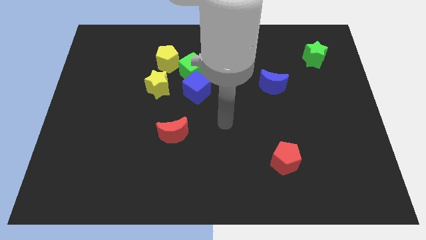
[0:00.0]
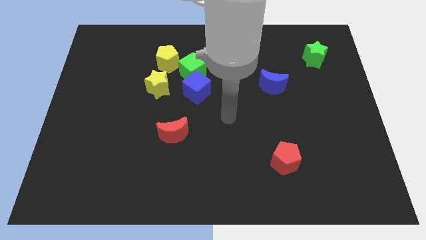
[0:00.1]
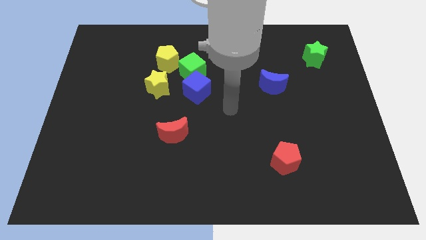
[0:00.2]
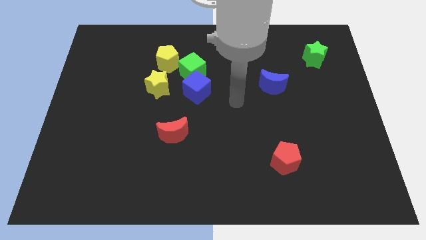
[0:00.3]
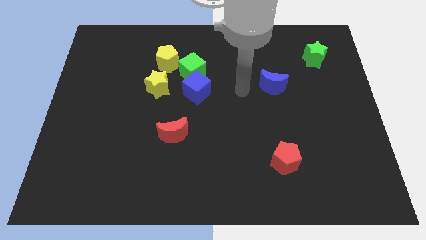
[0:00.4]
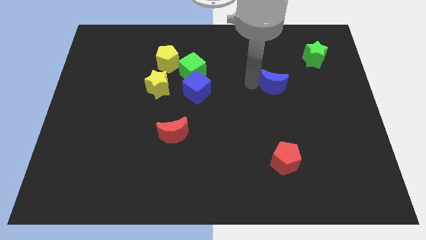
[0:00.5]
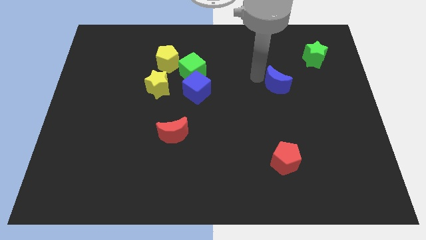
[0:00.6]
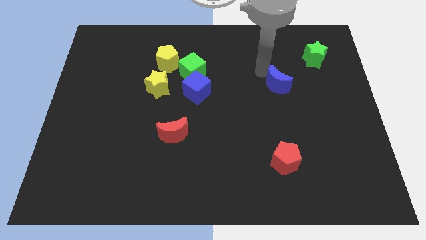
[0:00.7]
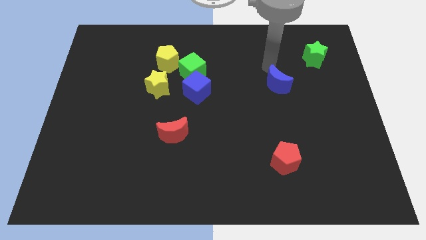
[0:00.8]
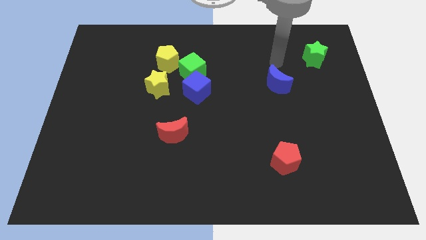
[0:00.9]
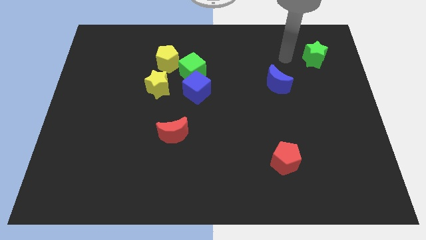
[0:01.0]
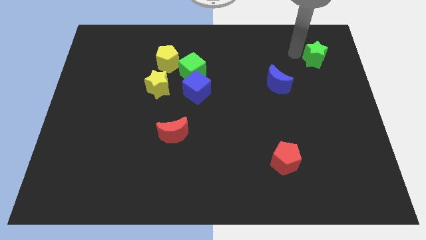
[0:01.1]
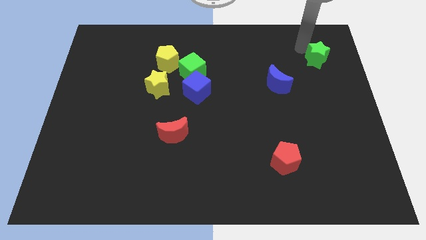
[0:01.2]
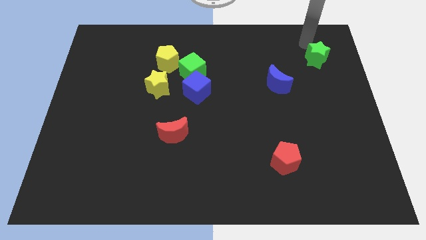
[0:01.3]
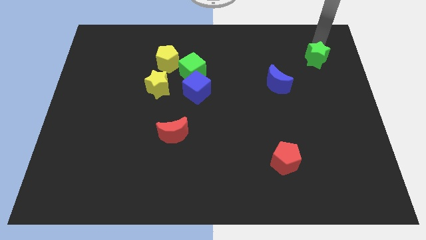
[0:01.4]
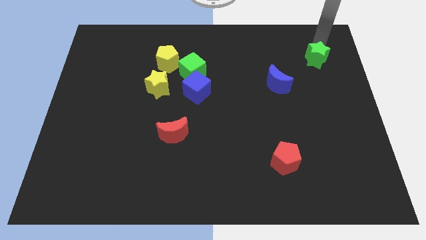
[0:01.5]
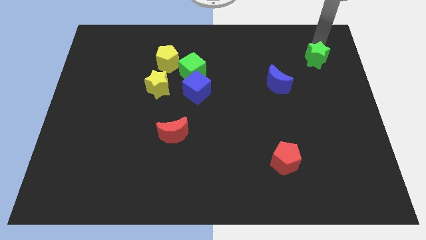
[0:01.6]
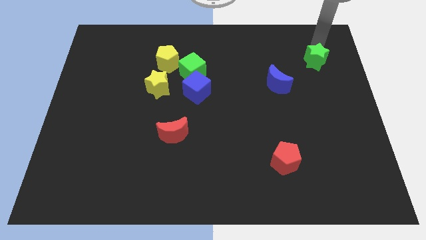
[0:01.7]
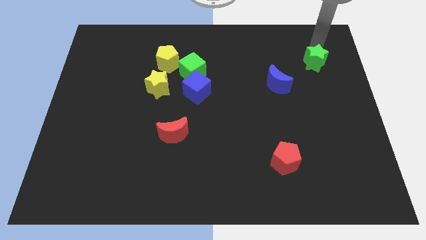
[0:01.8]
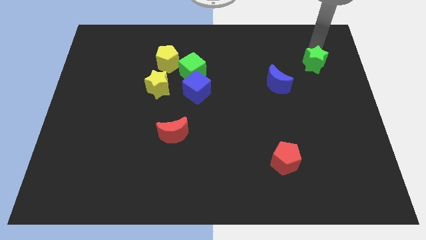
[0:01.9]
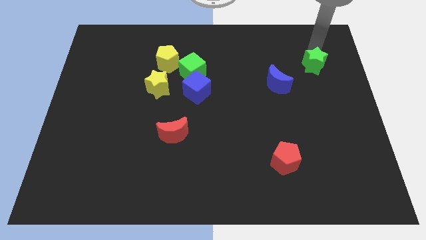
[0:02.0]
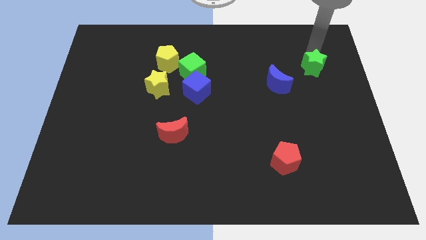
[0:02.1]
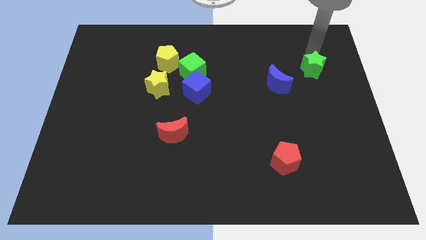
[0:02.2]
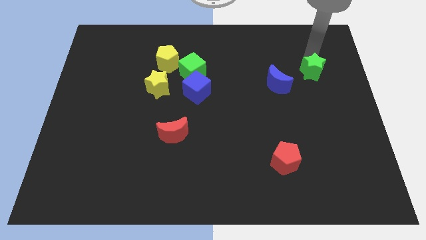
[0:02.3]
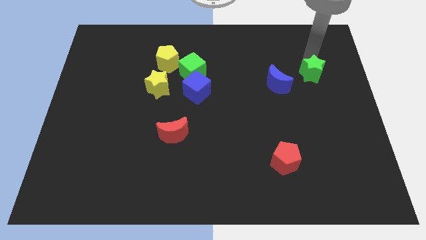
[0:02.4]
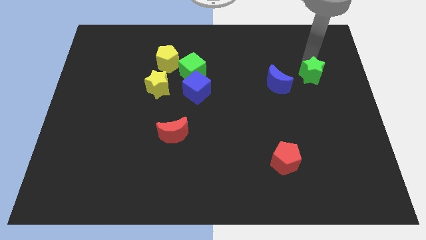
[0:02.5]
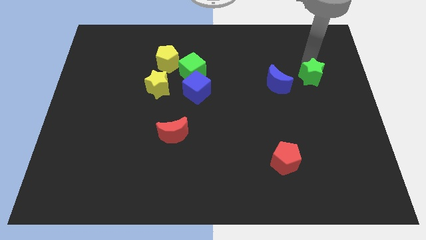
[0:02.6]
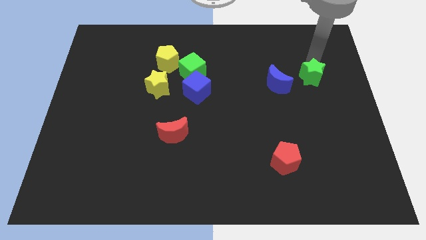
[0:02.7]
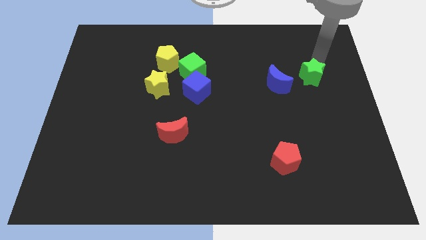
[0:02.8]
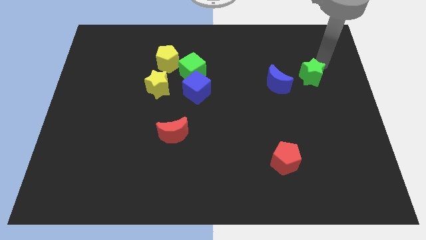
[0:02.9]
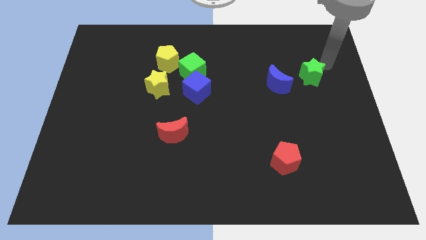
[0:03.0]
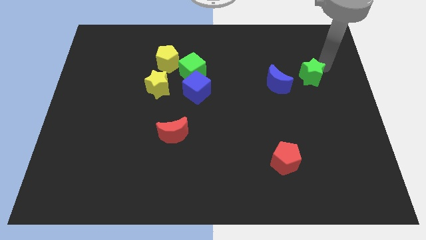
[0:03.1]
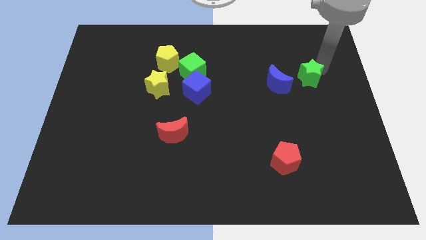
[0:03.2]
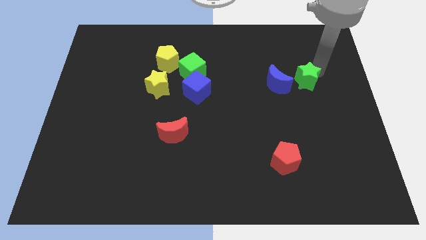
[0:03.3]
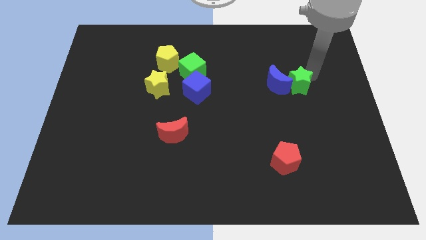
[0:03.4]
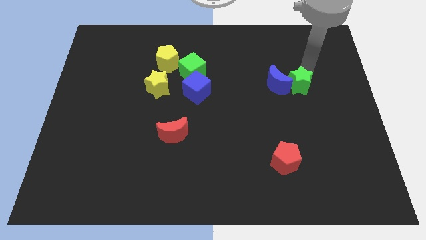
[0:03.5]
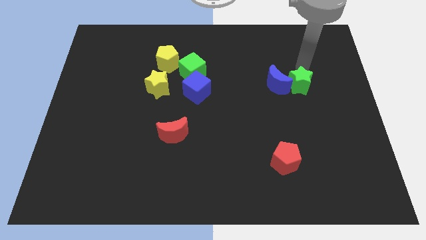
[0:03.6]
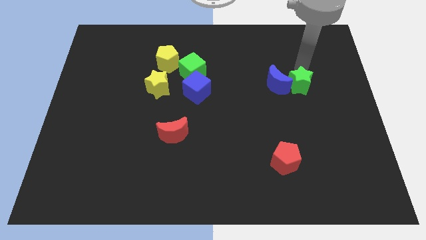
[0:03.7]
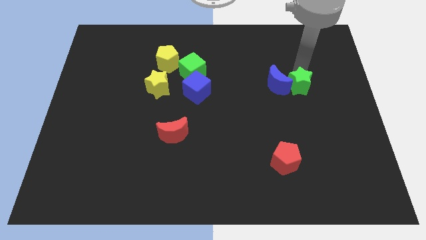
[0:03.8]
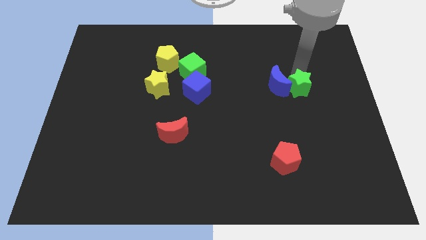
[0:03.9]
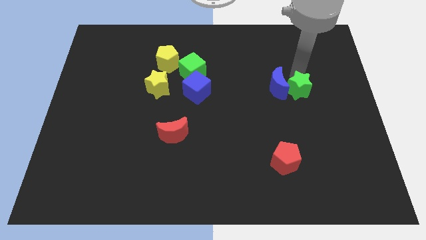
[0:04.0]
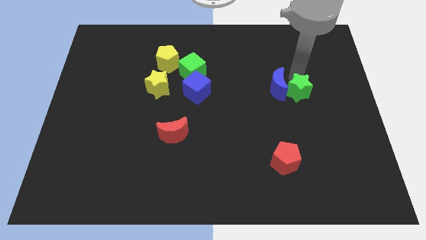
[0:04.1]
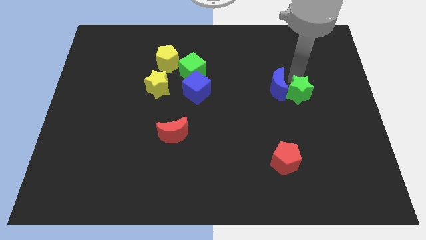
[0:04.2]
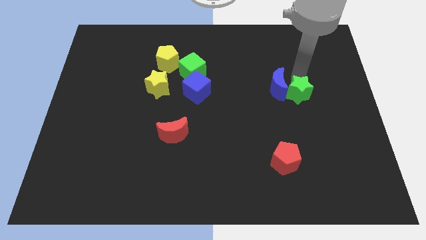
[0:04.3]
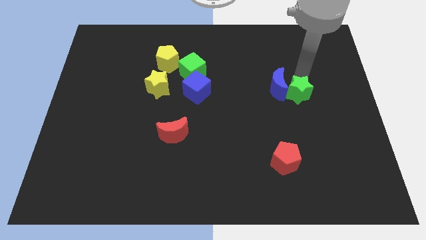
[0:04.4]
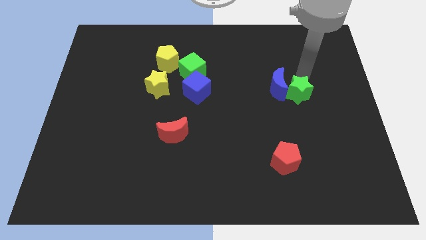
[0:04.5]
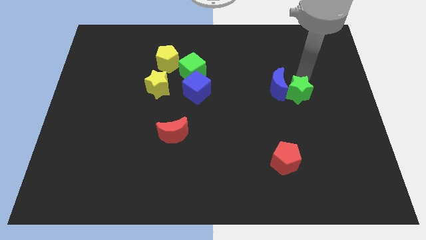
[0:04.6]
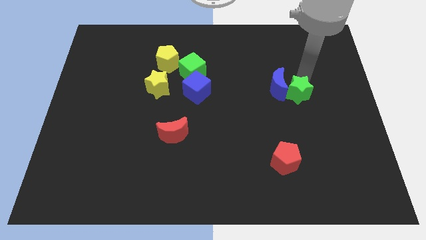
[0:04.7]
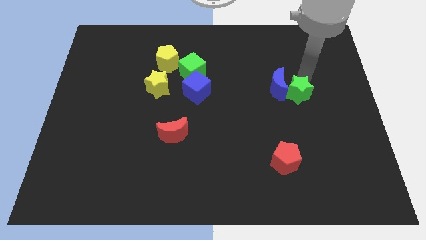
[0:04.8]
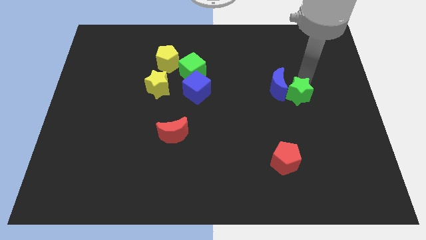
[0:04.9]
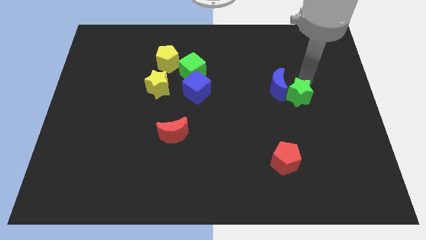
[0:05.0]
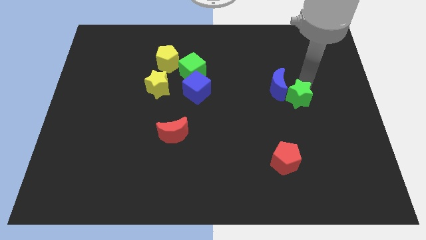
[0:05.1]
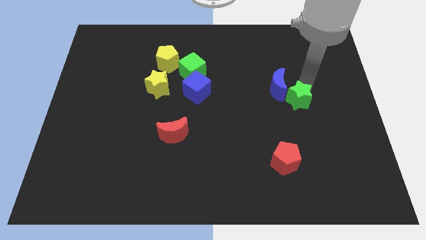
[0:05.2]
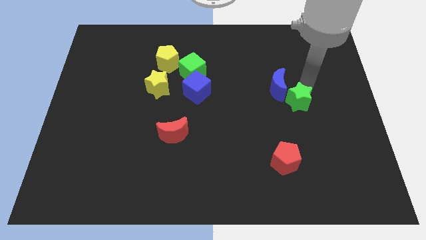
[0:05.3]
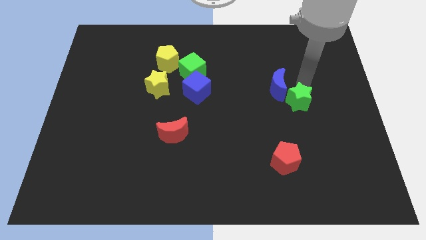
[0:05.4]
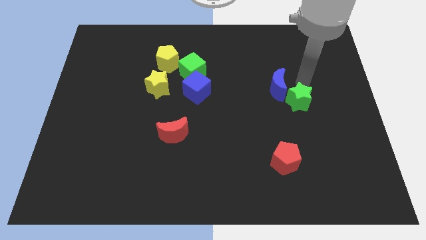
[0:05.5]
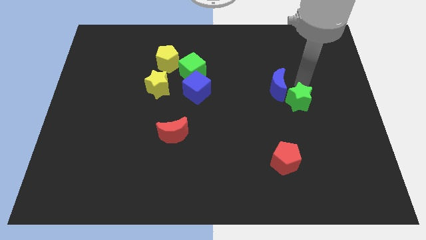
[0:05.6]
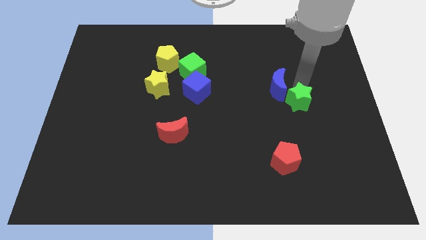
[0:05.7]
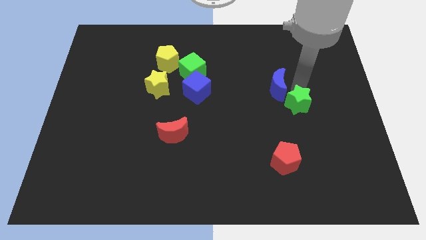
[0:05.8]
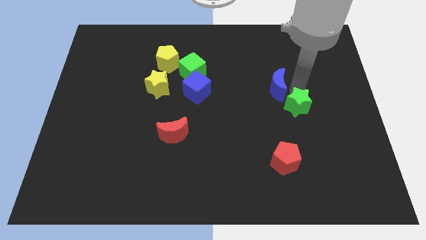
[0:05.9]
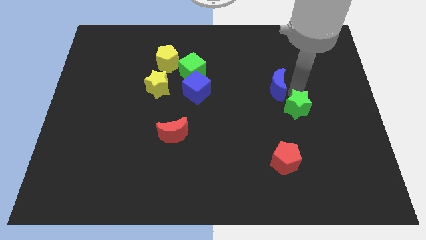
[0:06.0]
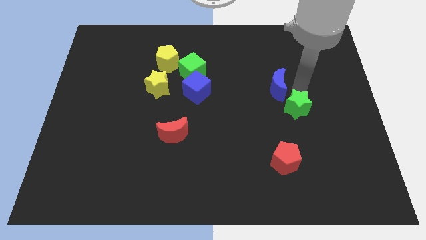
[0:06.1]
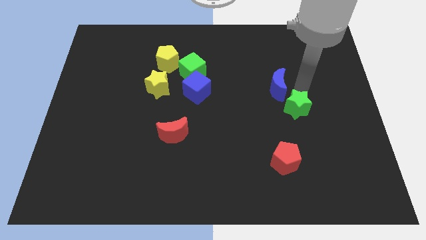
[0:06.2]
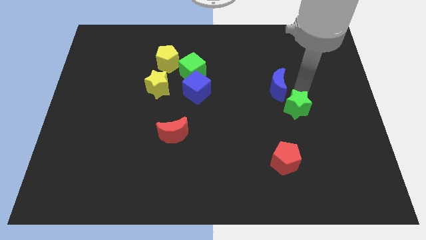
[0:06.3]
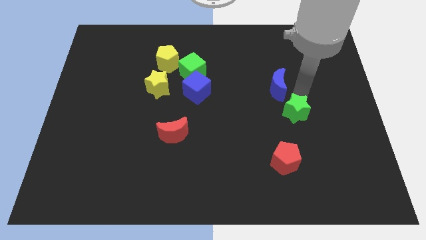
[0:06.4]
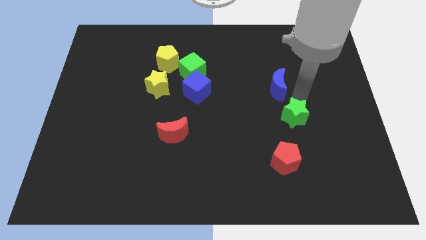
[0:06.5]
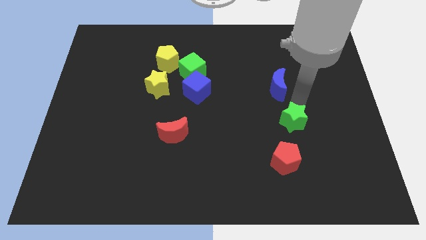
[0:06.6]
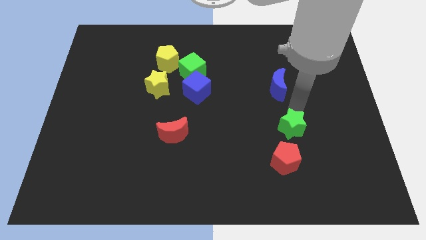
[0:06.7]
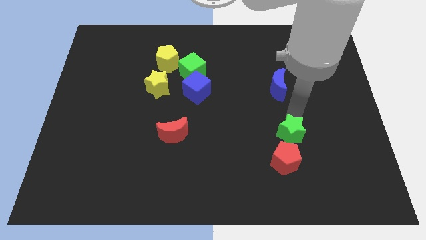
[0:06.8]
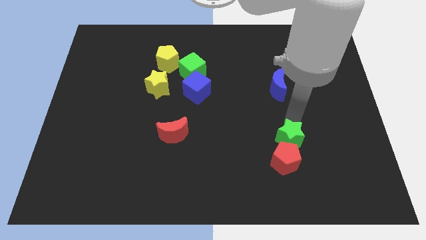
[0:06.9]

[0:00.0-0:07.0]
slide the green star close to the red pentagon

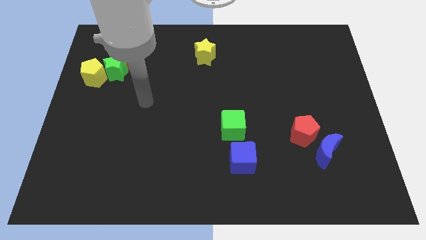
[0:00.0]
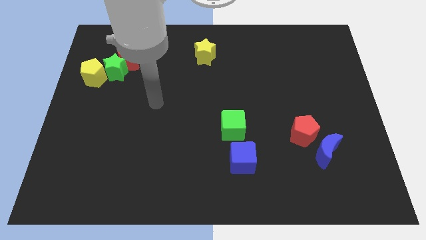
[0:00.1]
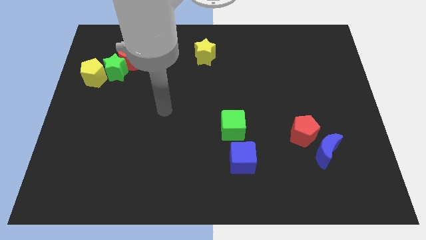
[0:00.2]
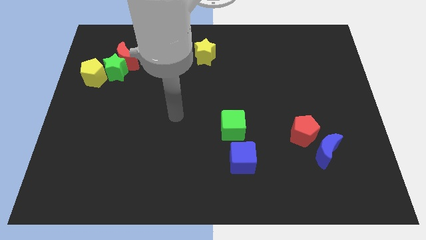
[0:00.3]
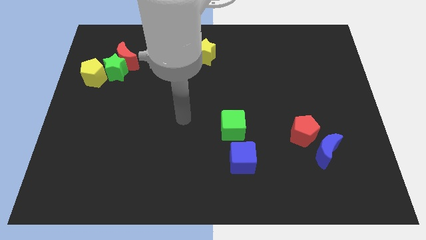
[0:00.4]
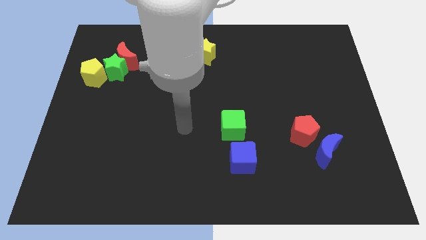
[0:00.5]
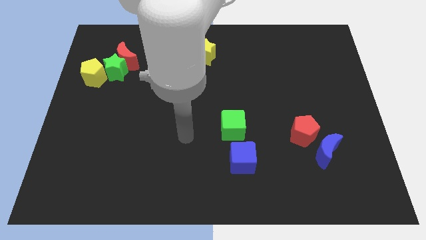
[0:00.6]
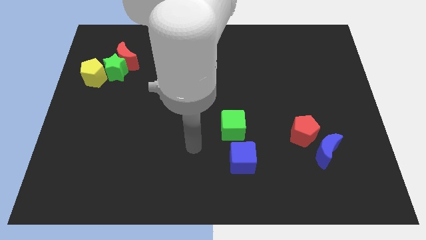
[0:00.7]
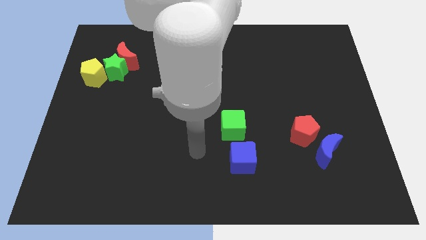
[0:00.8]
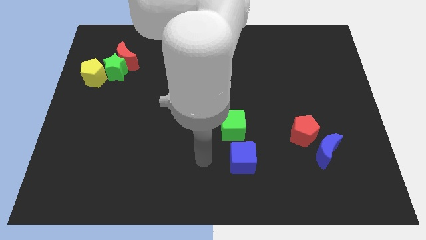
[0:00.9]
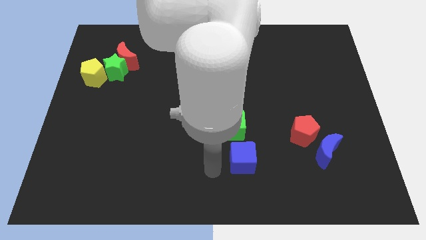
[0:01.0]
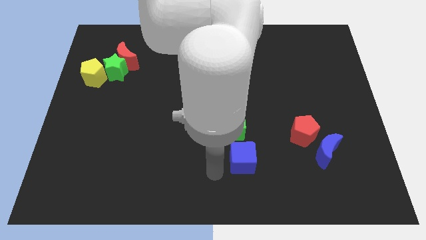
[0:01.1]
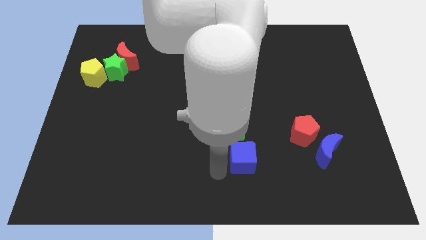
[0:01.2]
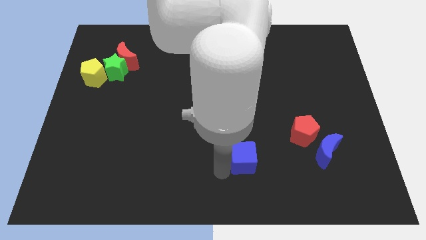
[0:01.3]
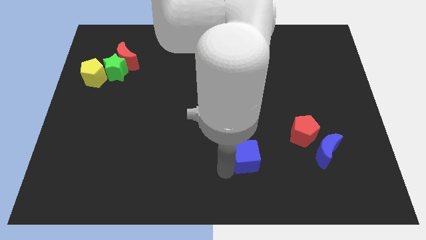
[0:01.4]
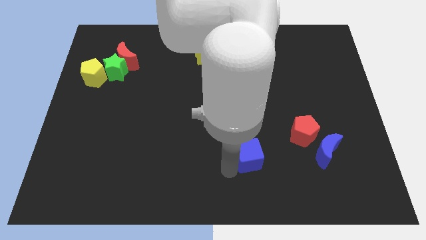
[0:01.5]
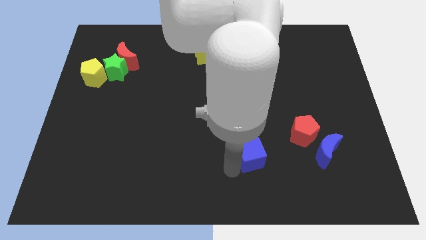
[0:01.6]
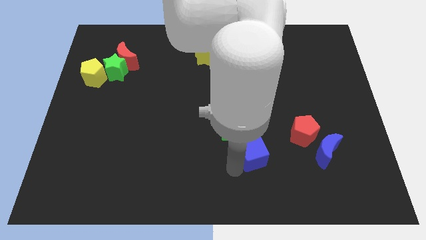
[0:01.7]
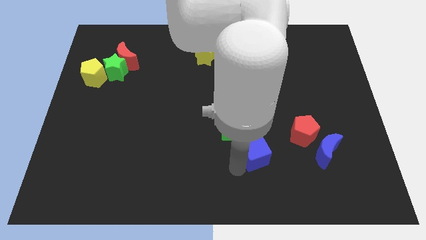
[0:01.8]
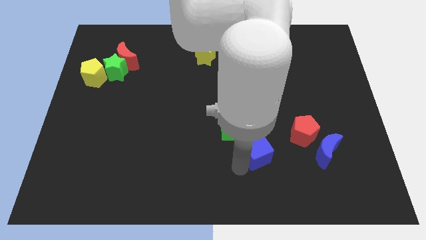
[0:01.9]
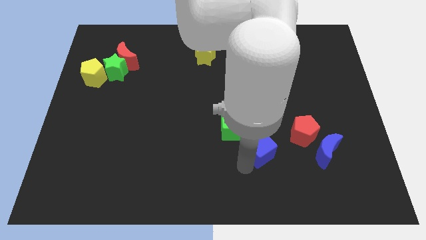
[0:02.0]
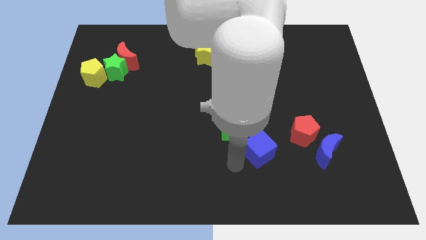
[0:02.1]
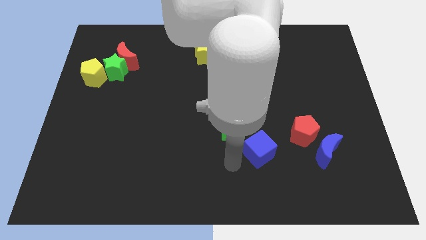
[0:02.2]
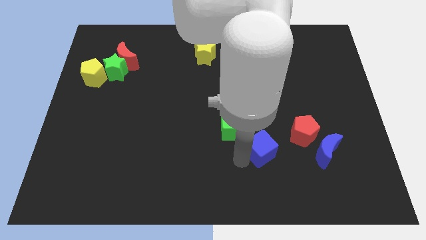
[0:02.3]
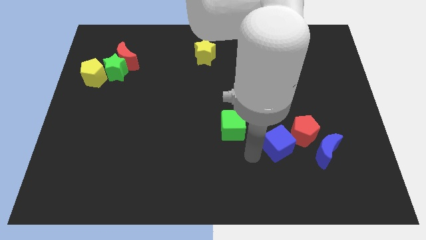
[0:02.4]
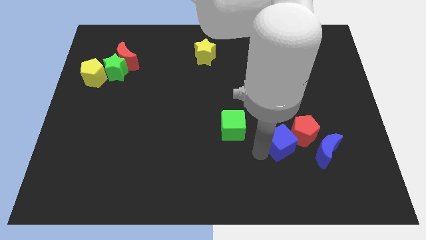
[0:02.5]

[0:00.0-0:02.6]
move the blue cube to the red pentagon
